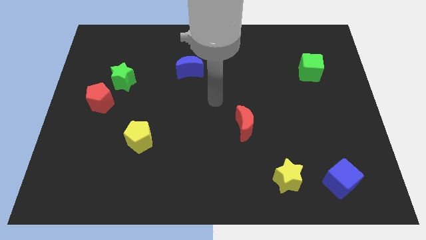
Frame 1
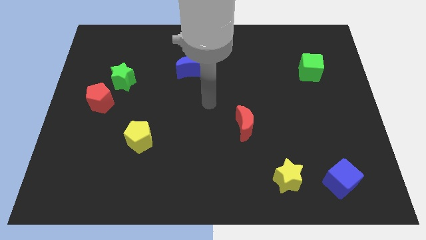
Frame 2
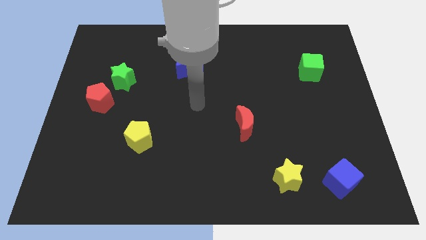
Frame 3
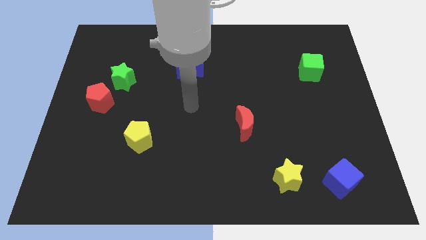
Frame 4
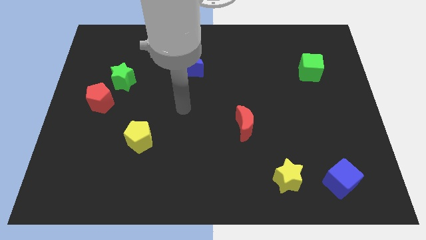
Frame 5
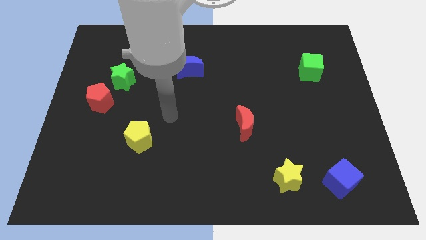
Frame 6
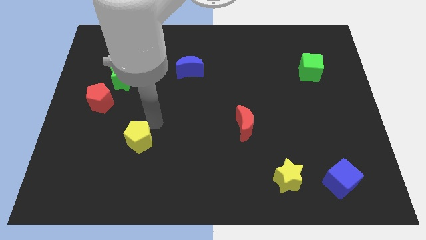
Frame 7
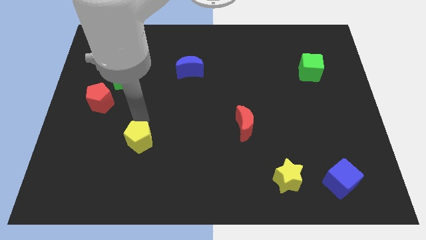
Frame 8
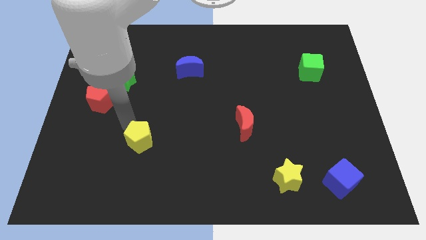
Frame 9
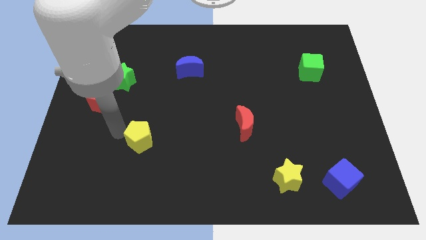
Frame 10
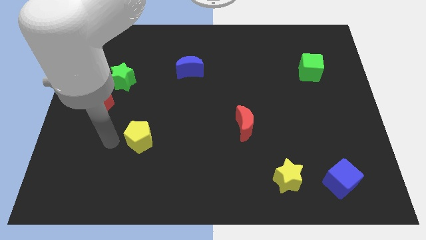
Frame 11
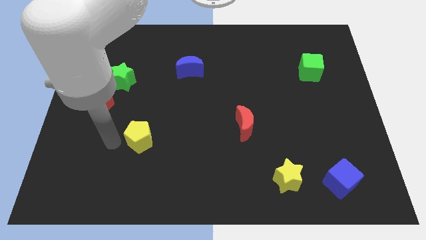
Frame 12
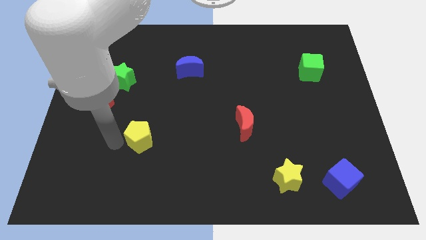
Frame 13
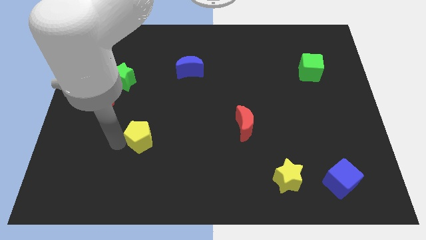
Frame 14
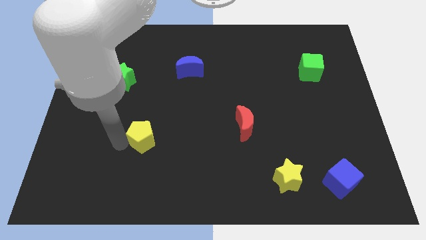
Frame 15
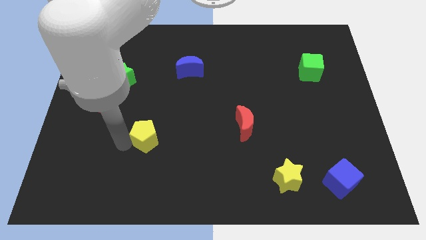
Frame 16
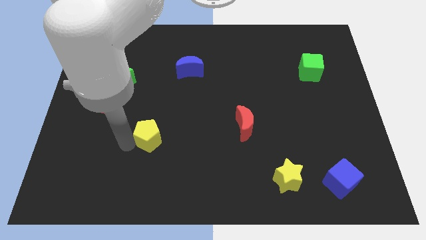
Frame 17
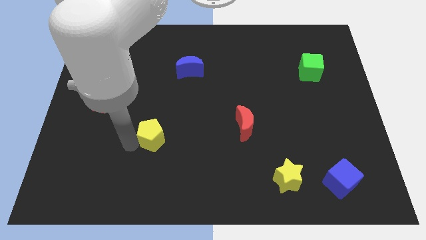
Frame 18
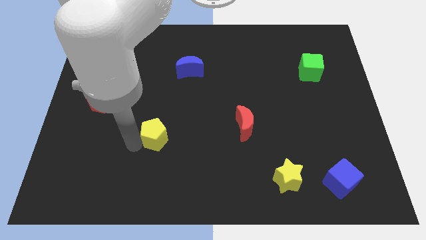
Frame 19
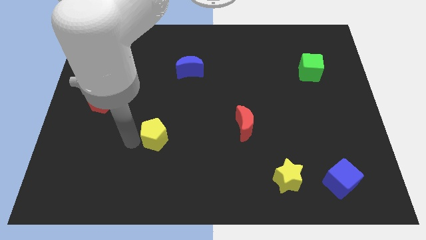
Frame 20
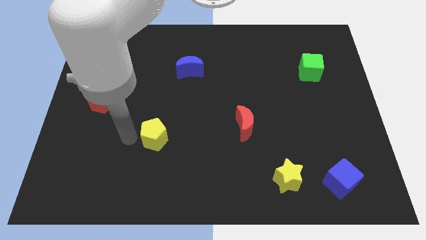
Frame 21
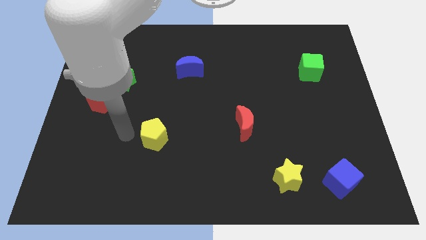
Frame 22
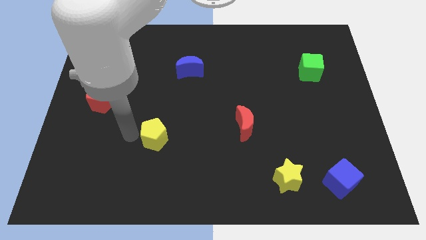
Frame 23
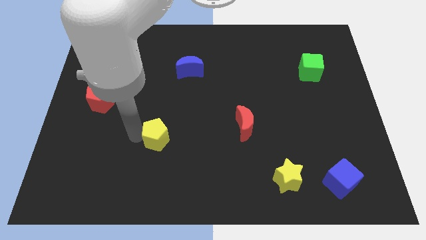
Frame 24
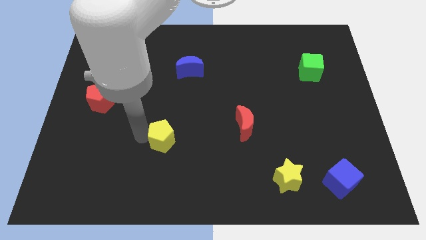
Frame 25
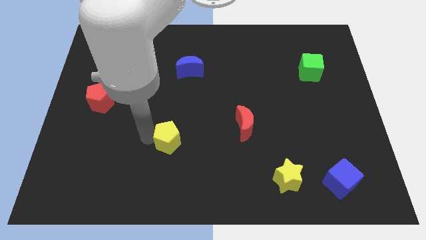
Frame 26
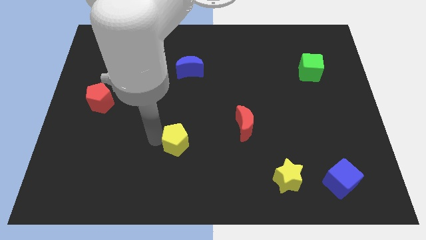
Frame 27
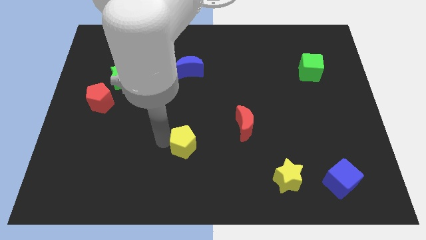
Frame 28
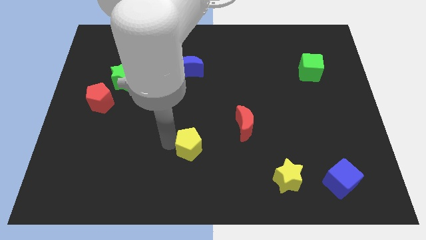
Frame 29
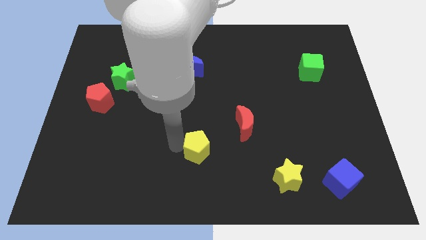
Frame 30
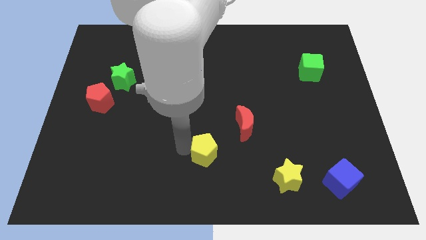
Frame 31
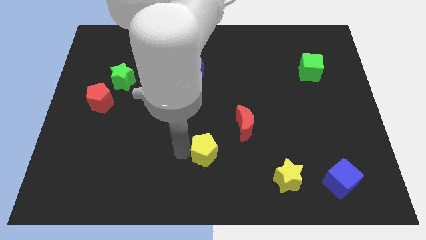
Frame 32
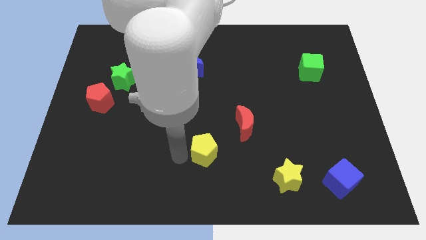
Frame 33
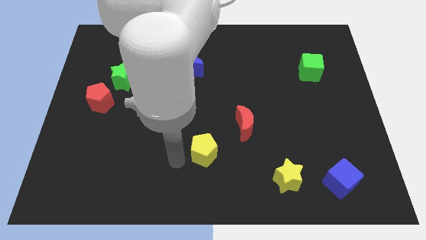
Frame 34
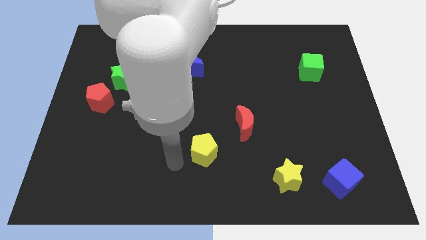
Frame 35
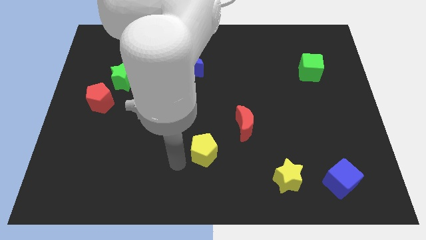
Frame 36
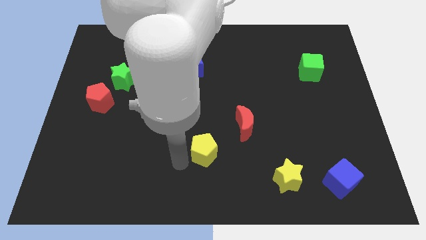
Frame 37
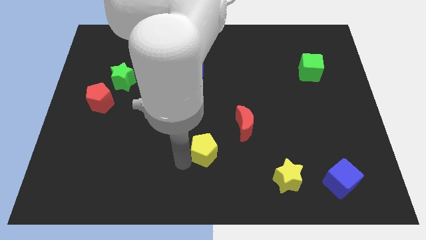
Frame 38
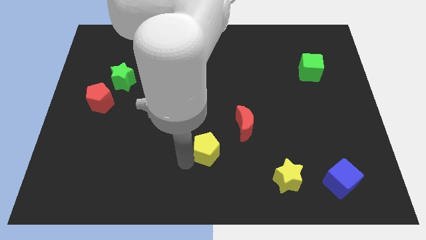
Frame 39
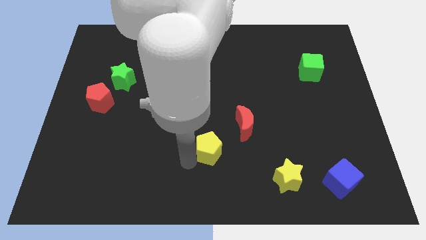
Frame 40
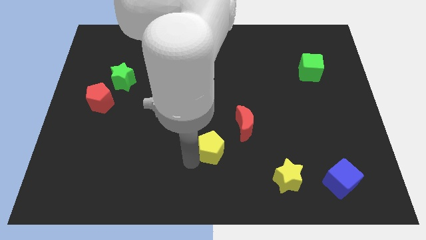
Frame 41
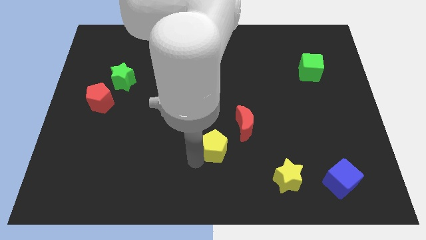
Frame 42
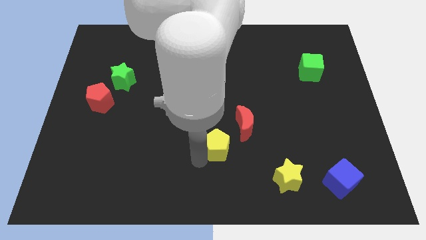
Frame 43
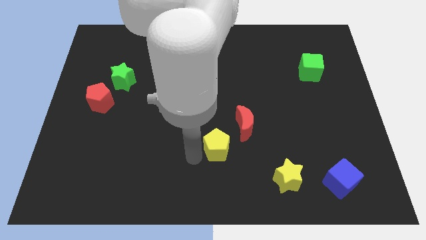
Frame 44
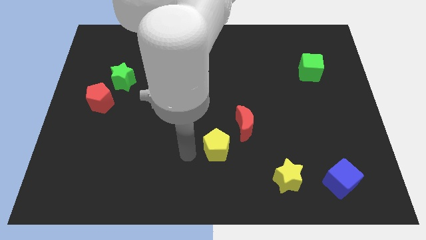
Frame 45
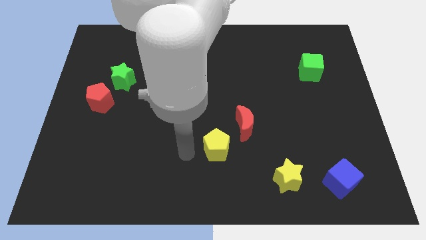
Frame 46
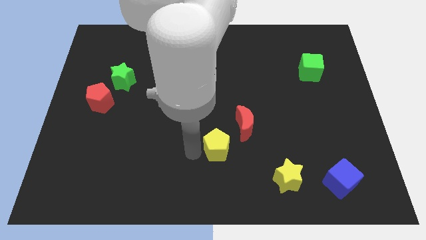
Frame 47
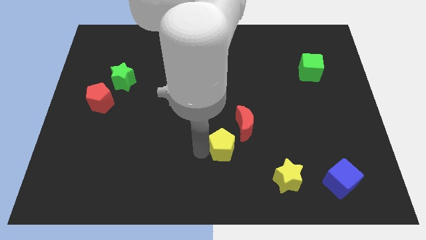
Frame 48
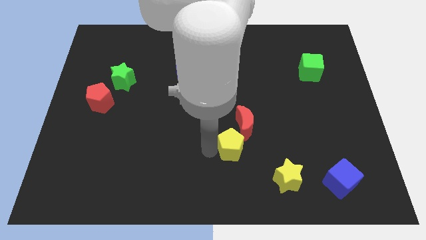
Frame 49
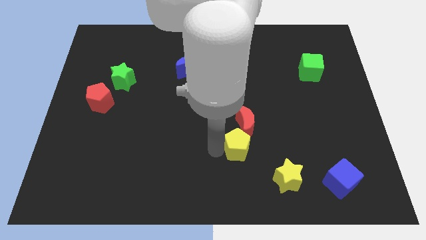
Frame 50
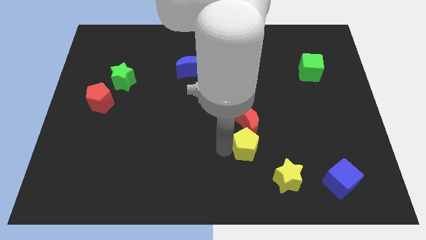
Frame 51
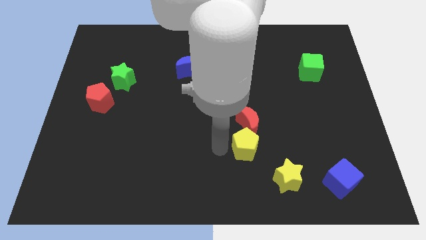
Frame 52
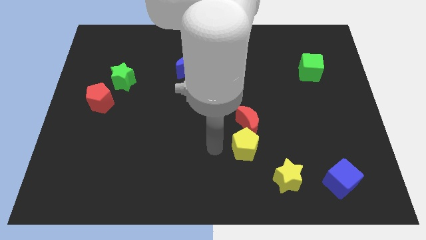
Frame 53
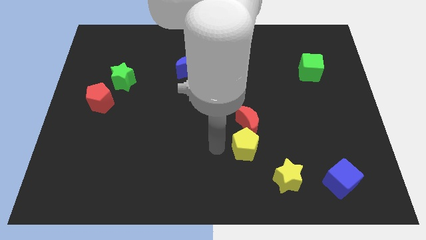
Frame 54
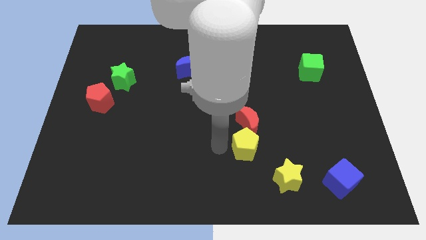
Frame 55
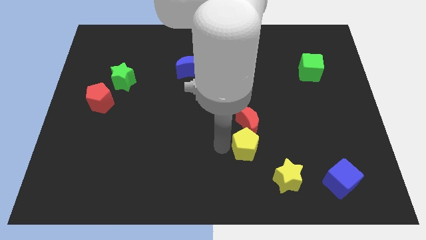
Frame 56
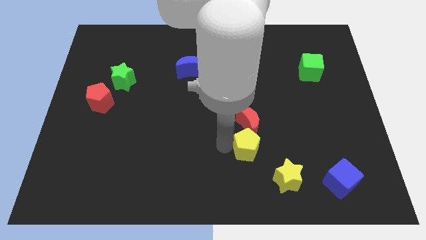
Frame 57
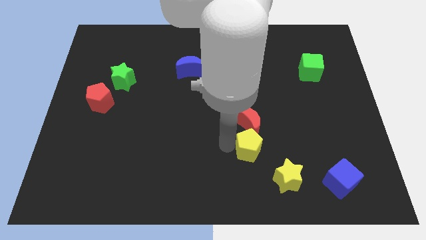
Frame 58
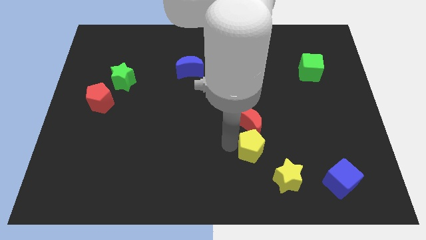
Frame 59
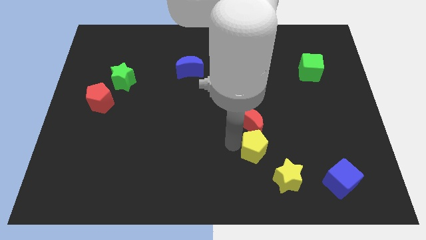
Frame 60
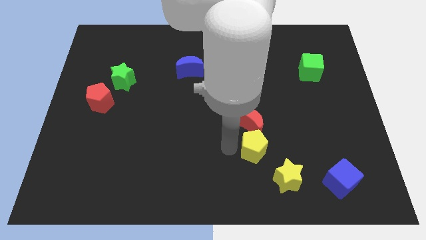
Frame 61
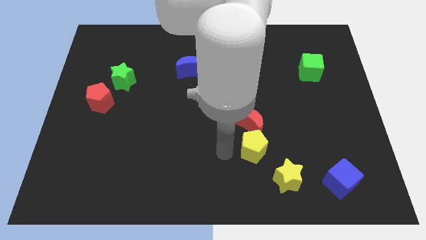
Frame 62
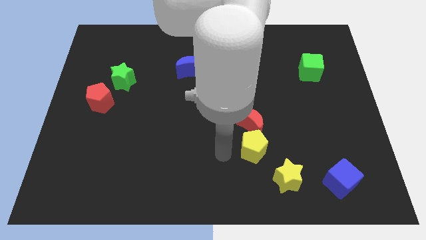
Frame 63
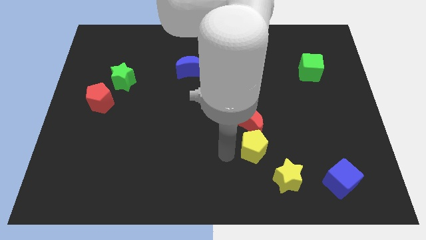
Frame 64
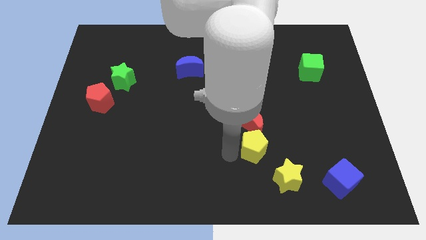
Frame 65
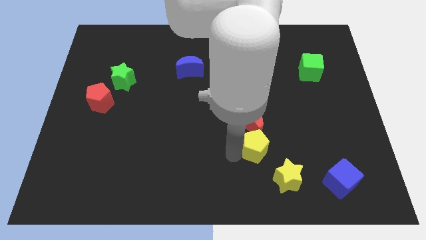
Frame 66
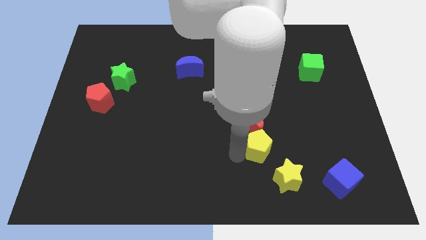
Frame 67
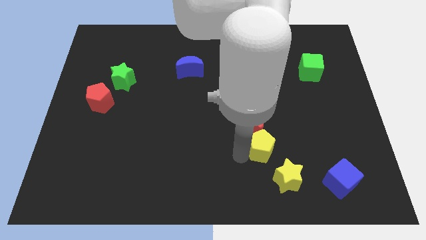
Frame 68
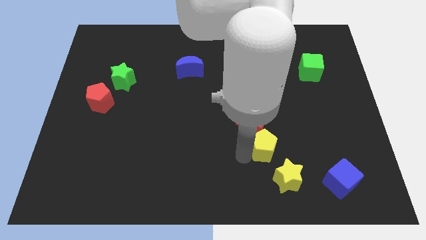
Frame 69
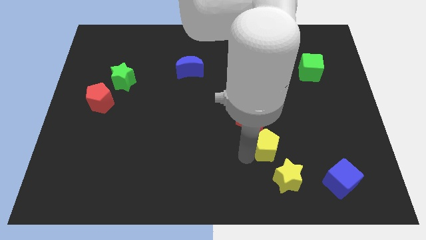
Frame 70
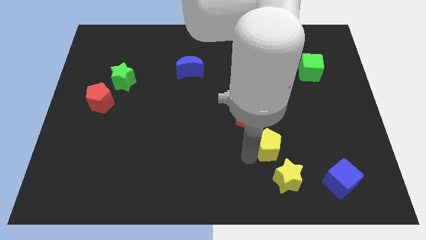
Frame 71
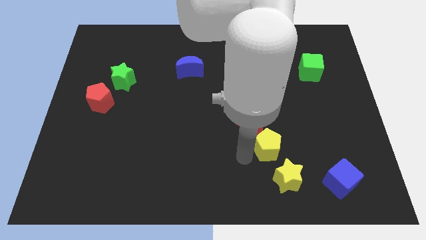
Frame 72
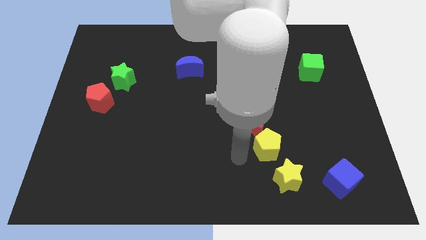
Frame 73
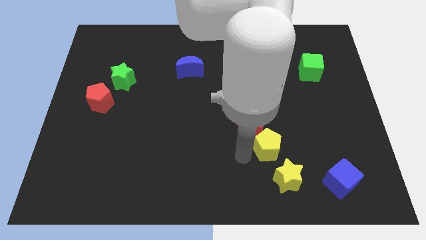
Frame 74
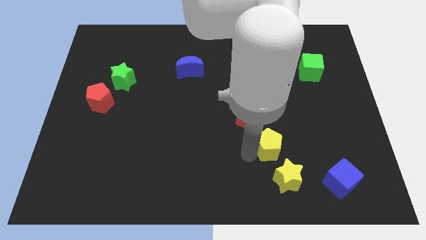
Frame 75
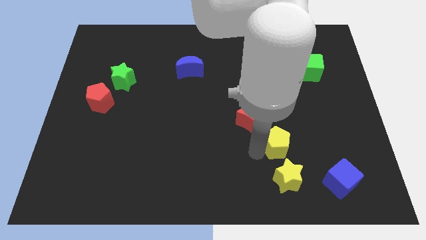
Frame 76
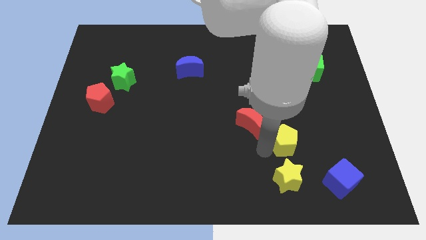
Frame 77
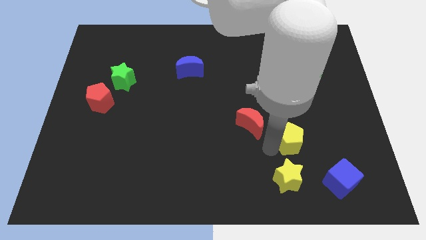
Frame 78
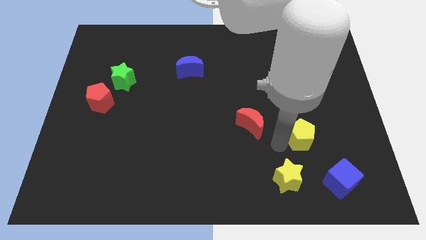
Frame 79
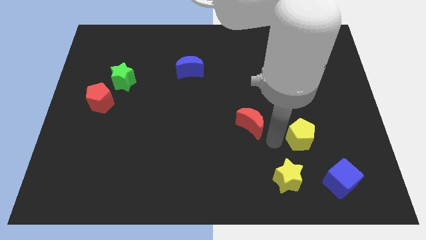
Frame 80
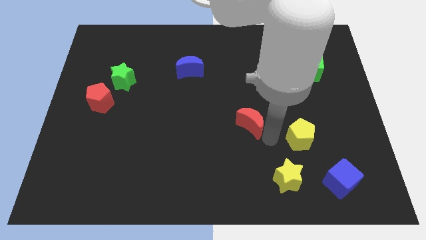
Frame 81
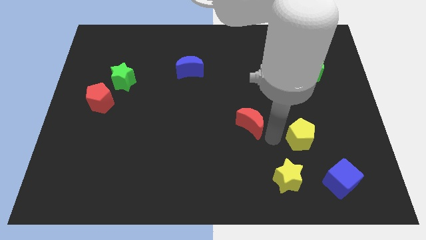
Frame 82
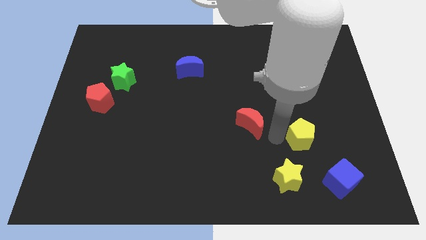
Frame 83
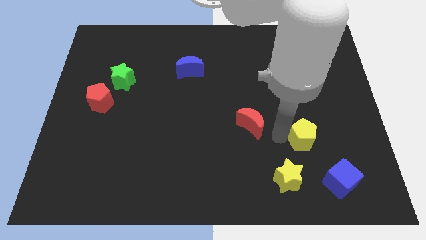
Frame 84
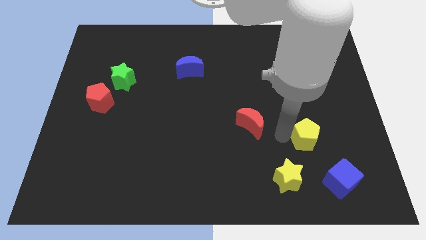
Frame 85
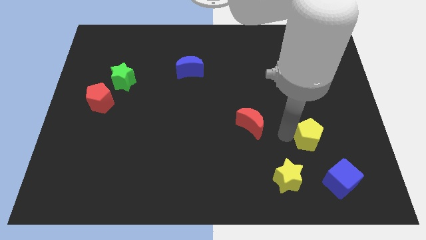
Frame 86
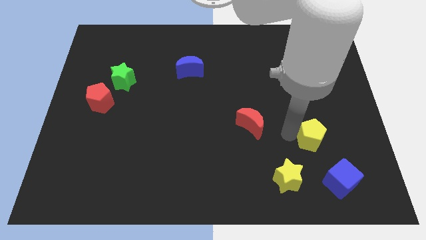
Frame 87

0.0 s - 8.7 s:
push the yellow pentagon to the top side of the blue cube
